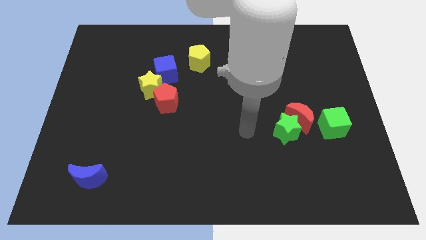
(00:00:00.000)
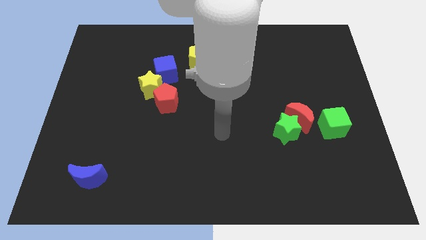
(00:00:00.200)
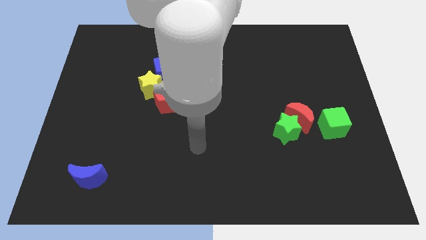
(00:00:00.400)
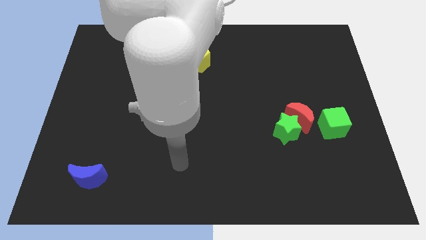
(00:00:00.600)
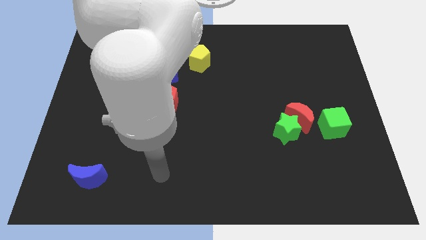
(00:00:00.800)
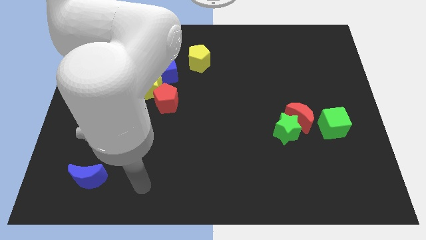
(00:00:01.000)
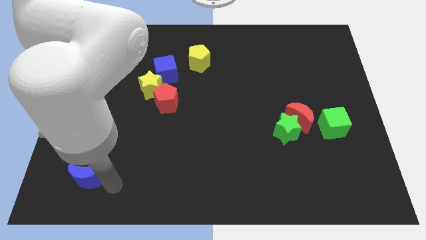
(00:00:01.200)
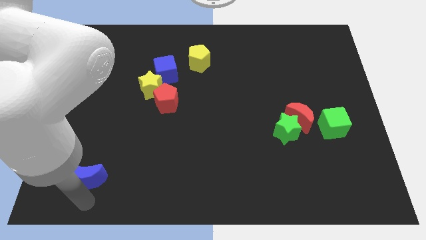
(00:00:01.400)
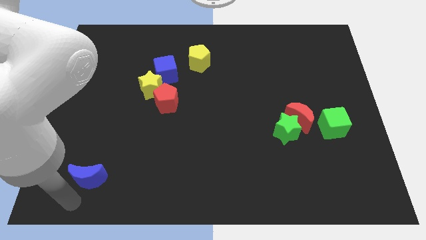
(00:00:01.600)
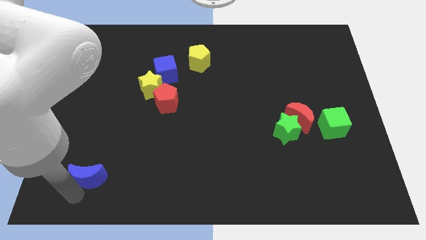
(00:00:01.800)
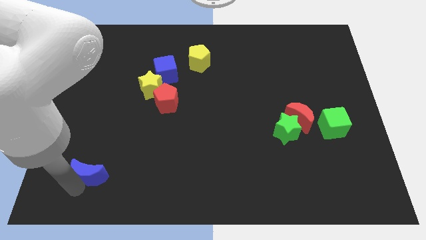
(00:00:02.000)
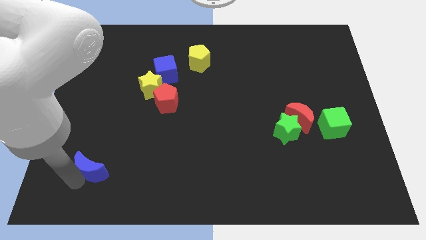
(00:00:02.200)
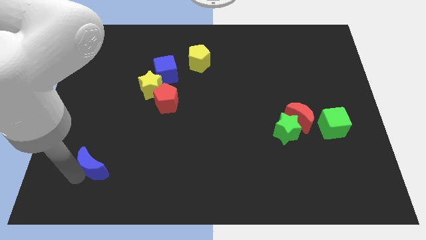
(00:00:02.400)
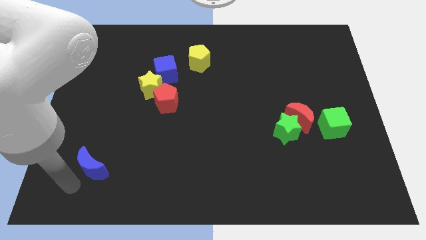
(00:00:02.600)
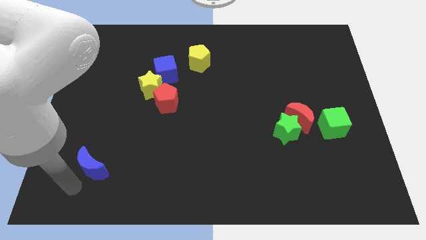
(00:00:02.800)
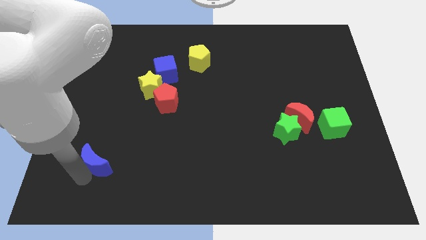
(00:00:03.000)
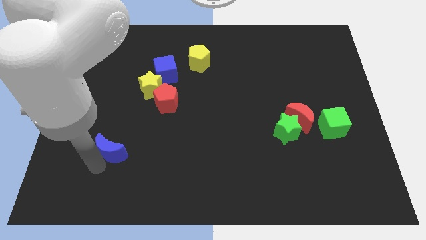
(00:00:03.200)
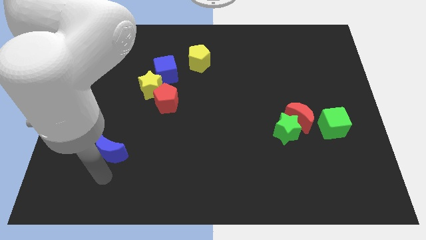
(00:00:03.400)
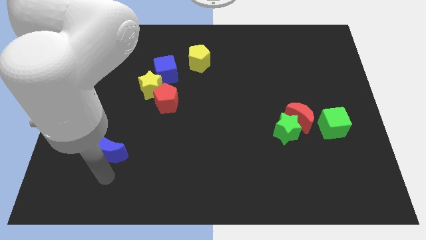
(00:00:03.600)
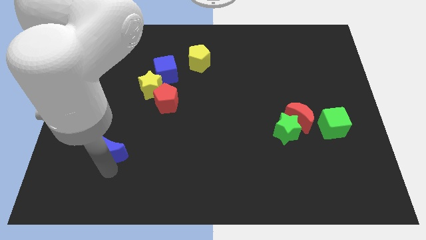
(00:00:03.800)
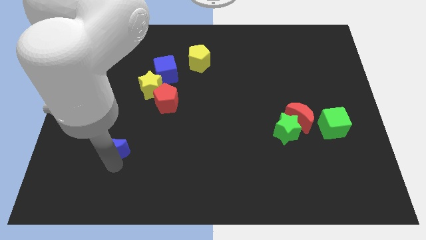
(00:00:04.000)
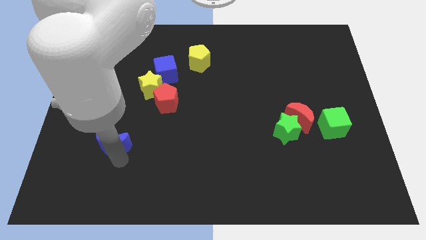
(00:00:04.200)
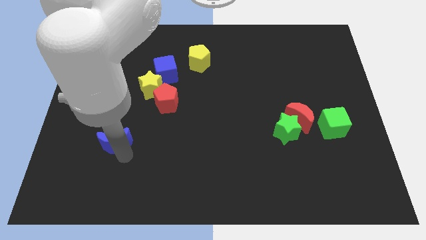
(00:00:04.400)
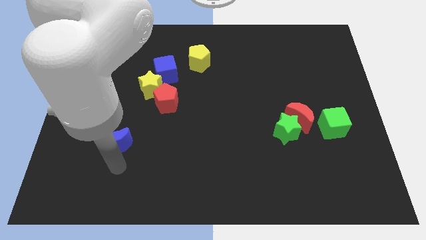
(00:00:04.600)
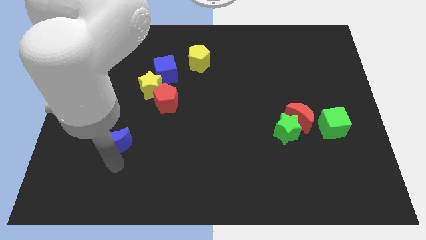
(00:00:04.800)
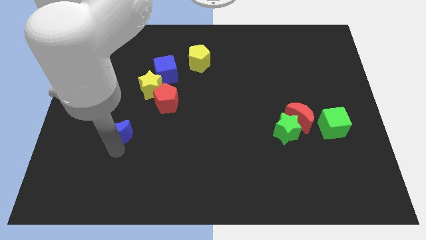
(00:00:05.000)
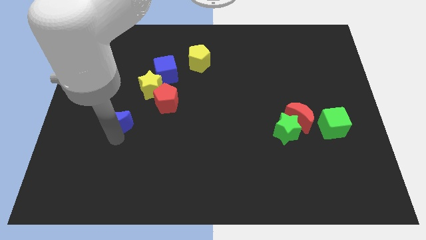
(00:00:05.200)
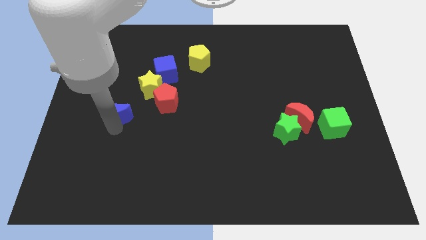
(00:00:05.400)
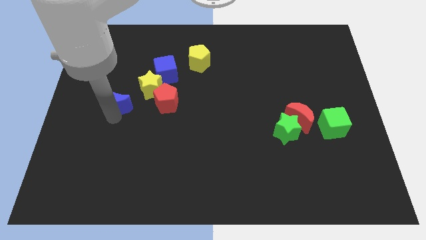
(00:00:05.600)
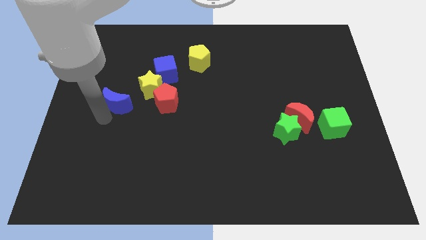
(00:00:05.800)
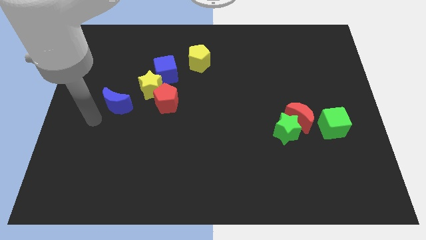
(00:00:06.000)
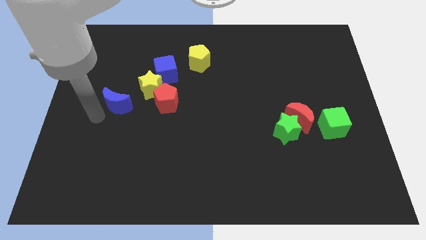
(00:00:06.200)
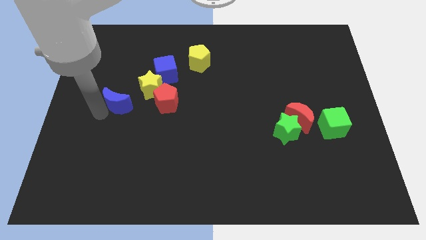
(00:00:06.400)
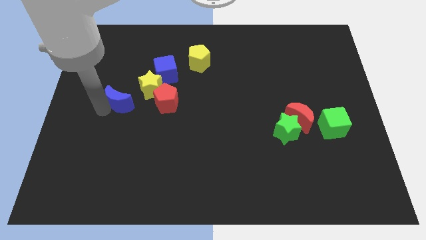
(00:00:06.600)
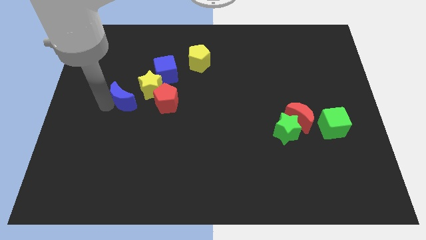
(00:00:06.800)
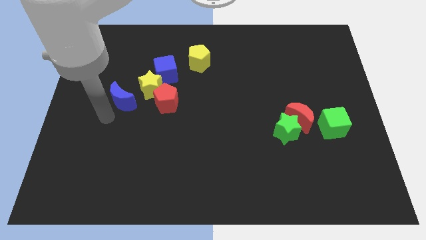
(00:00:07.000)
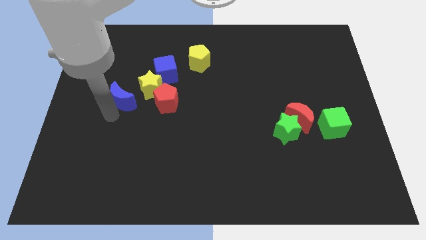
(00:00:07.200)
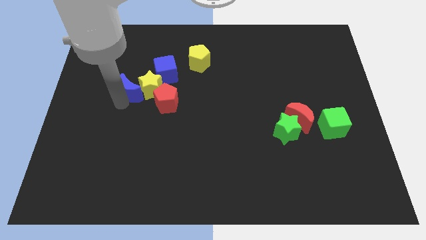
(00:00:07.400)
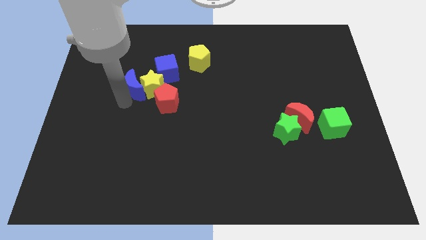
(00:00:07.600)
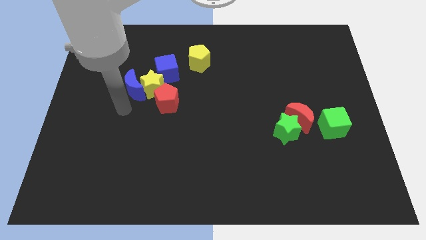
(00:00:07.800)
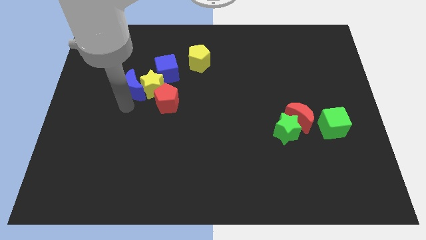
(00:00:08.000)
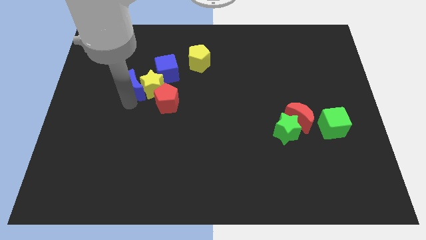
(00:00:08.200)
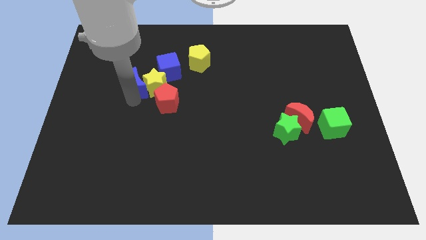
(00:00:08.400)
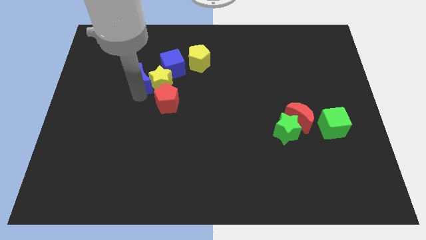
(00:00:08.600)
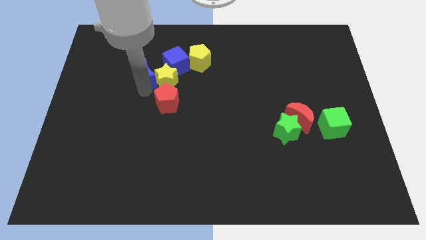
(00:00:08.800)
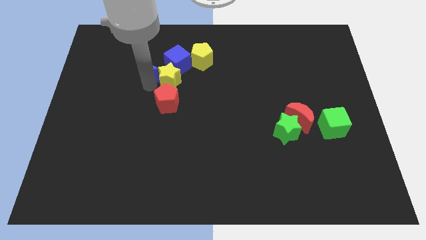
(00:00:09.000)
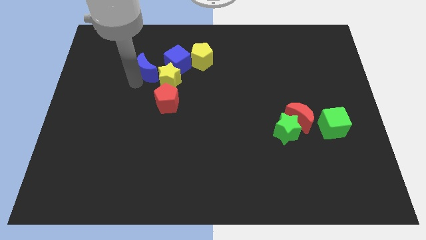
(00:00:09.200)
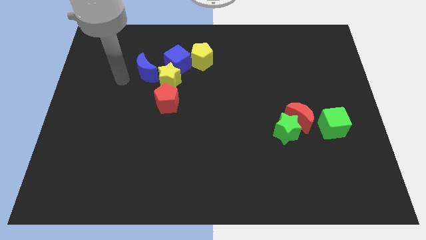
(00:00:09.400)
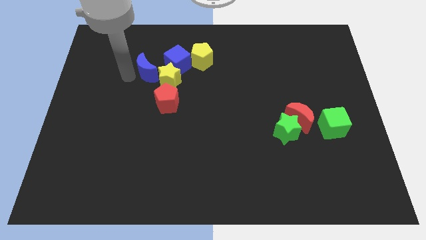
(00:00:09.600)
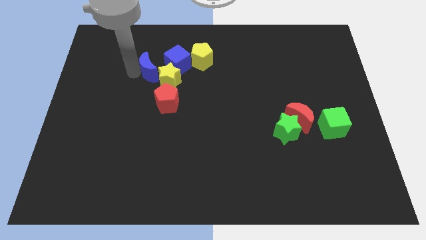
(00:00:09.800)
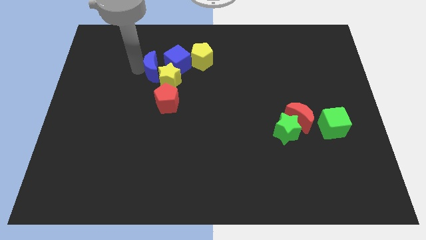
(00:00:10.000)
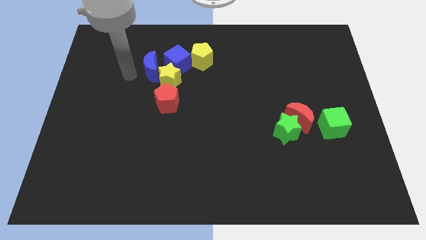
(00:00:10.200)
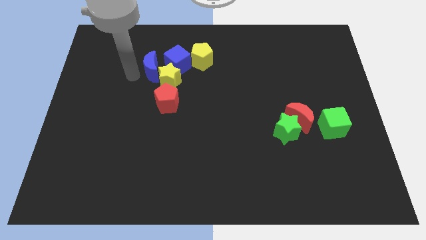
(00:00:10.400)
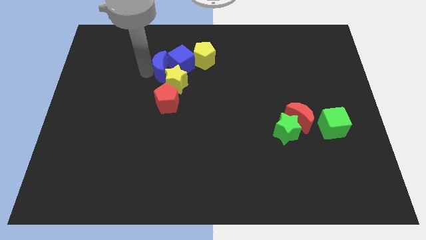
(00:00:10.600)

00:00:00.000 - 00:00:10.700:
put the blue moon to the blue cube

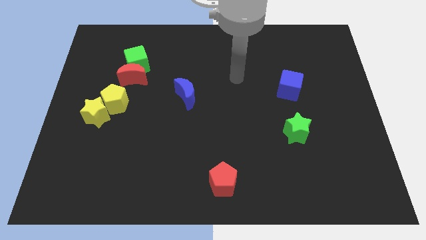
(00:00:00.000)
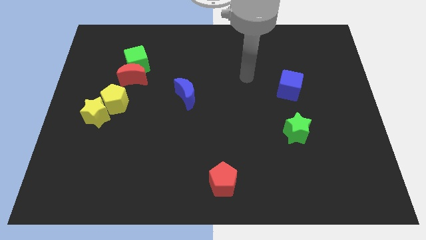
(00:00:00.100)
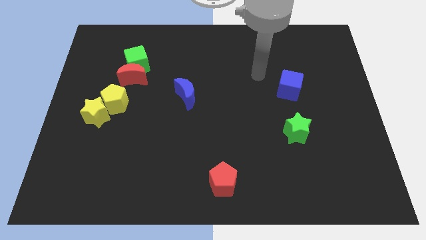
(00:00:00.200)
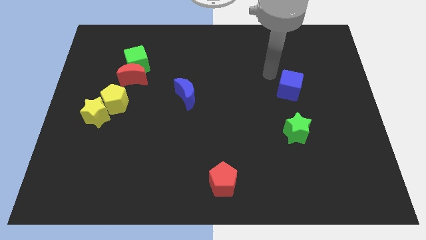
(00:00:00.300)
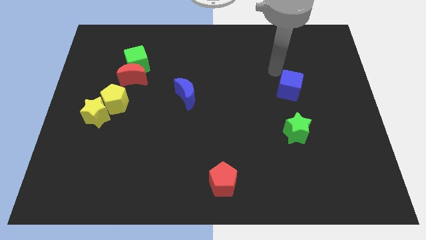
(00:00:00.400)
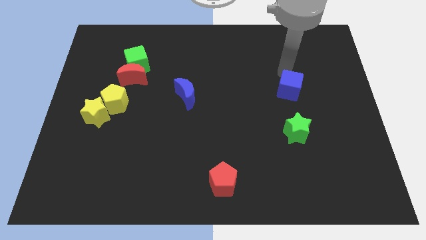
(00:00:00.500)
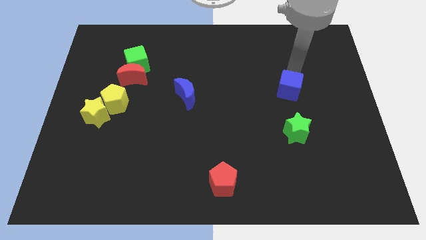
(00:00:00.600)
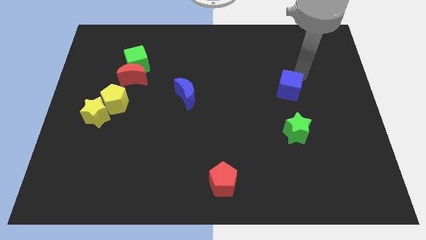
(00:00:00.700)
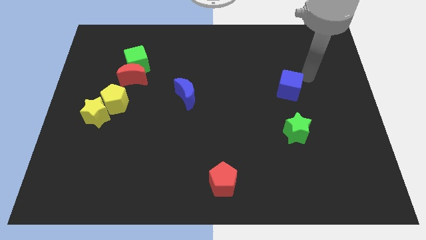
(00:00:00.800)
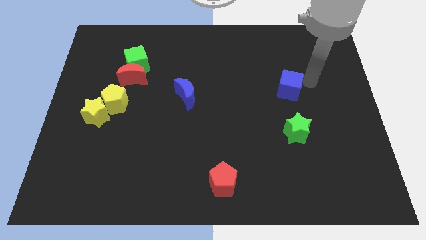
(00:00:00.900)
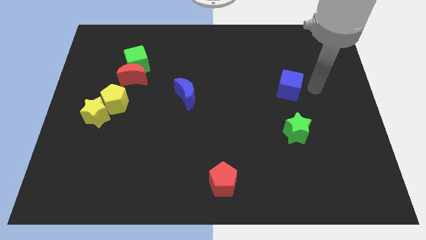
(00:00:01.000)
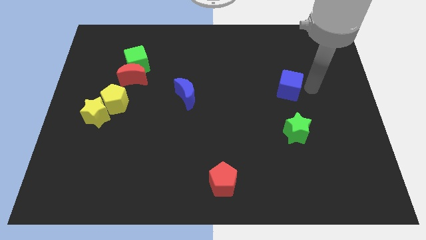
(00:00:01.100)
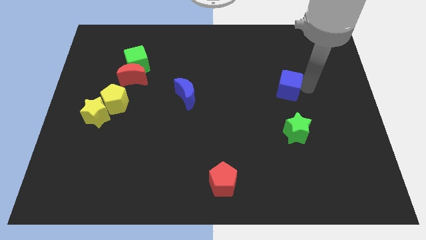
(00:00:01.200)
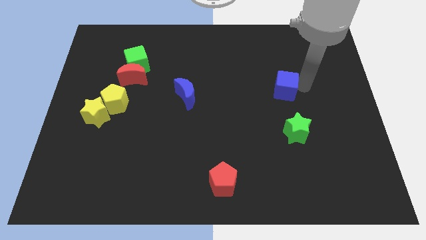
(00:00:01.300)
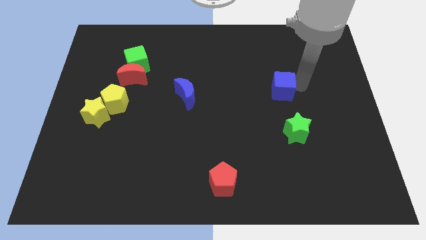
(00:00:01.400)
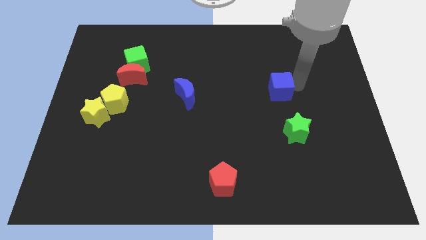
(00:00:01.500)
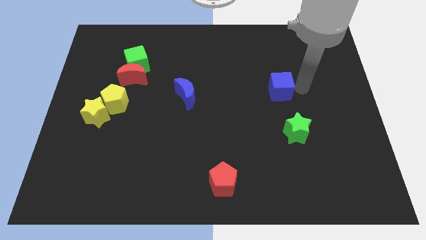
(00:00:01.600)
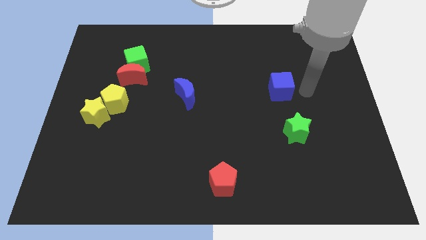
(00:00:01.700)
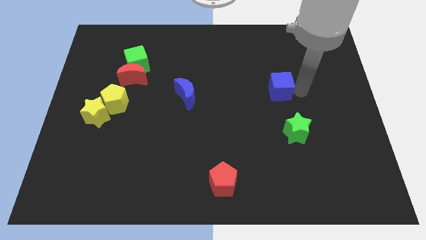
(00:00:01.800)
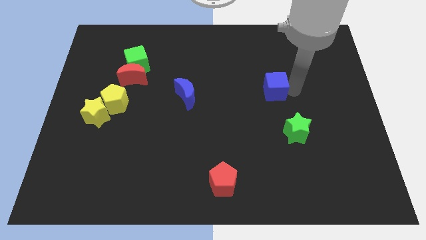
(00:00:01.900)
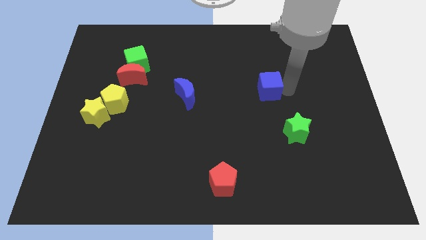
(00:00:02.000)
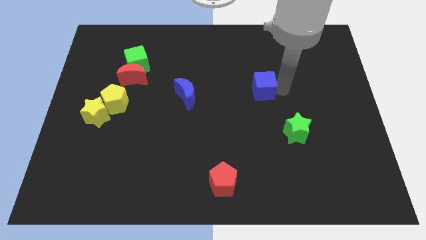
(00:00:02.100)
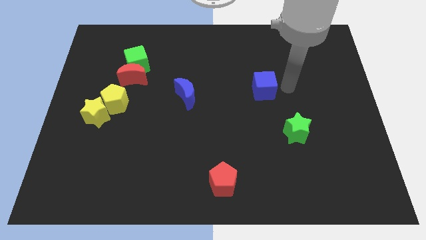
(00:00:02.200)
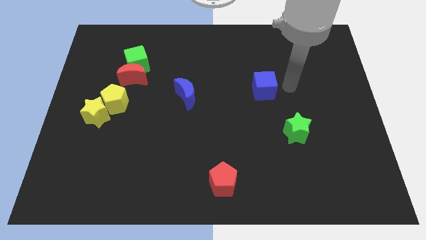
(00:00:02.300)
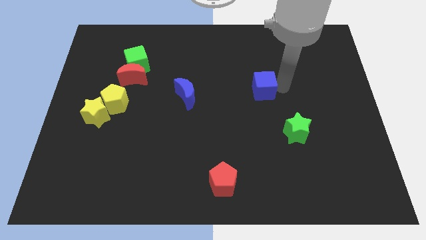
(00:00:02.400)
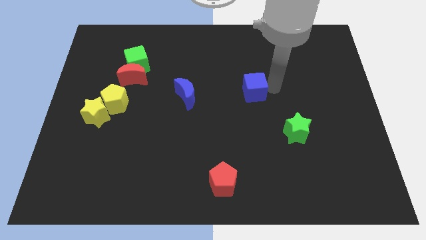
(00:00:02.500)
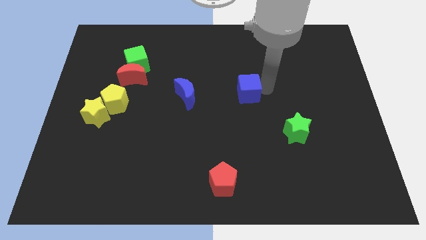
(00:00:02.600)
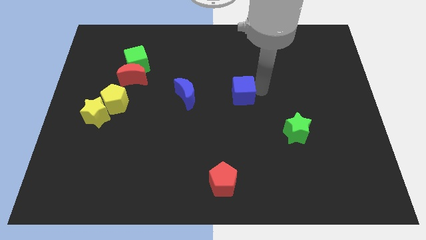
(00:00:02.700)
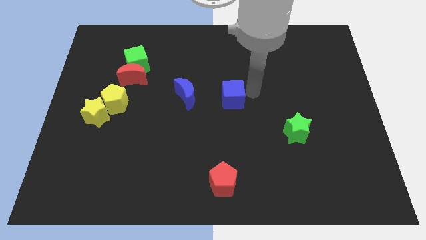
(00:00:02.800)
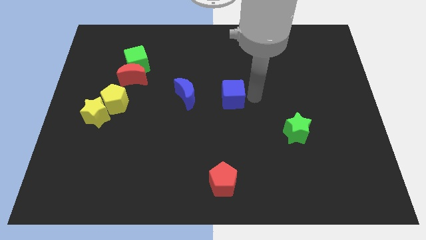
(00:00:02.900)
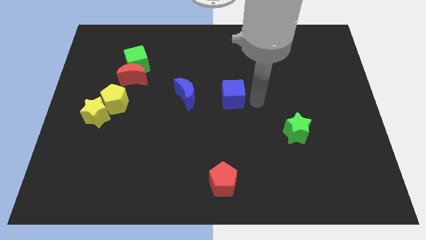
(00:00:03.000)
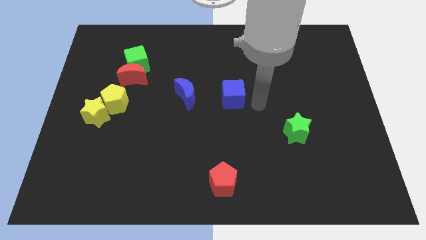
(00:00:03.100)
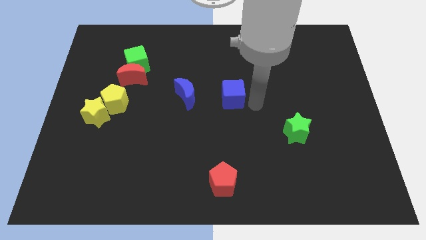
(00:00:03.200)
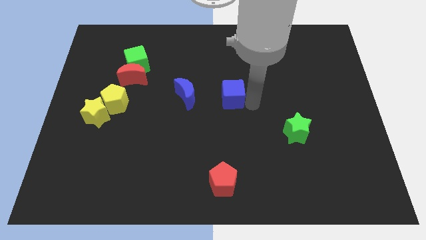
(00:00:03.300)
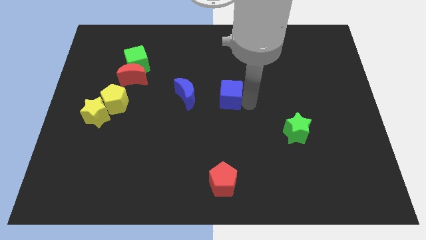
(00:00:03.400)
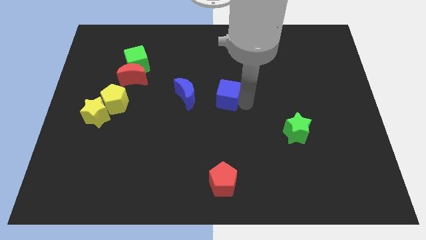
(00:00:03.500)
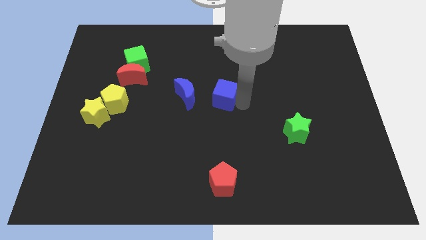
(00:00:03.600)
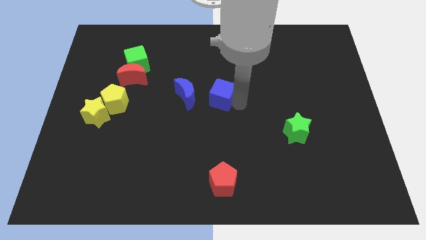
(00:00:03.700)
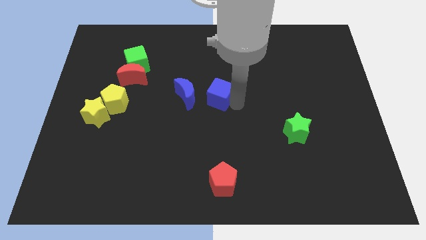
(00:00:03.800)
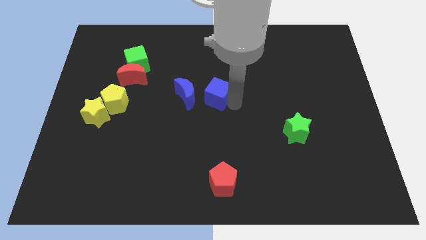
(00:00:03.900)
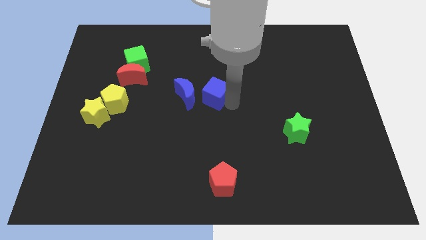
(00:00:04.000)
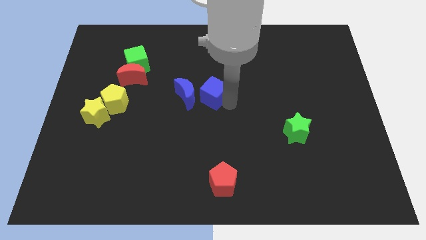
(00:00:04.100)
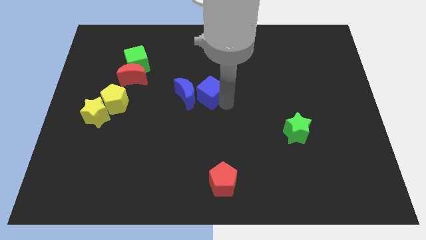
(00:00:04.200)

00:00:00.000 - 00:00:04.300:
slide the blue cube to the blue moon
